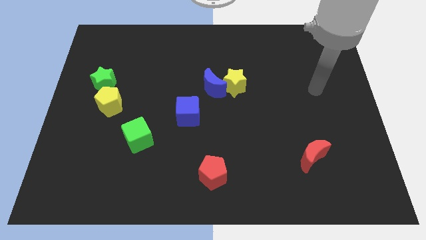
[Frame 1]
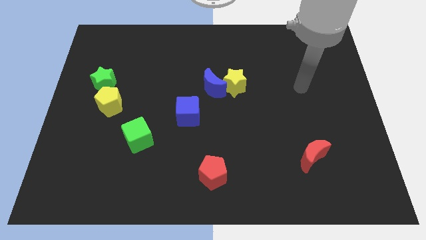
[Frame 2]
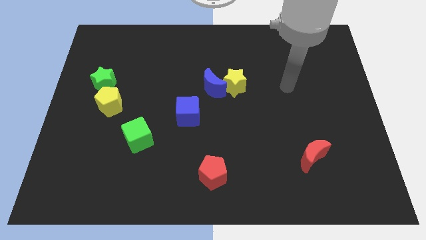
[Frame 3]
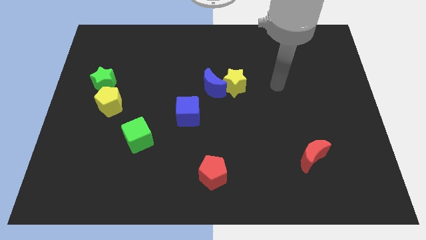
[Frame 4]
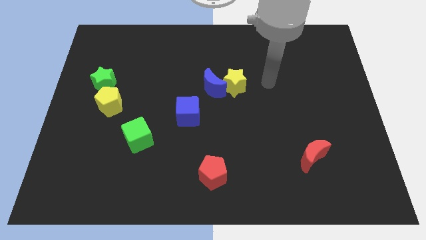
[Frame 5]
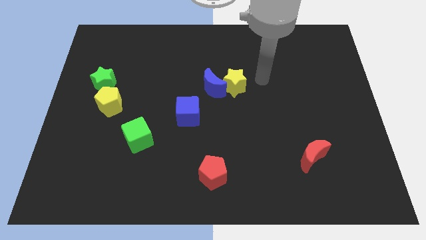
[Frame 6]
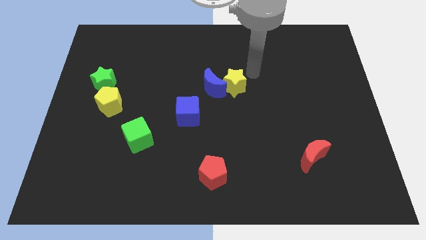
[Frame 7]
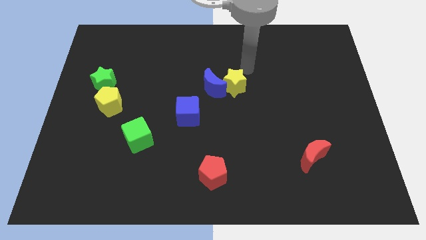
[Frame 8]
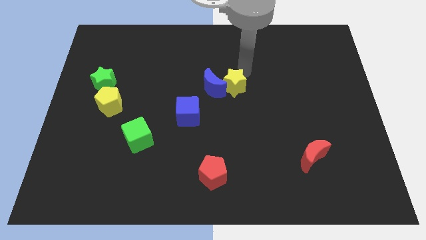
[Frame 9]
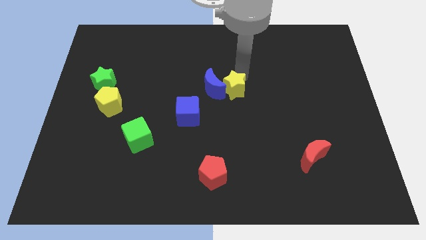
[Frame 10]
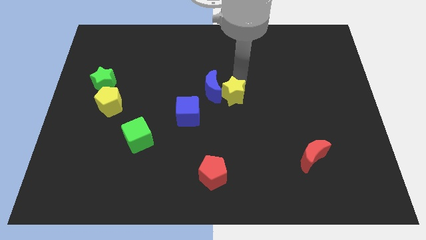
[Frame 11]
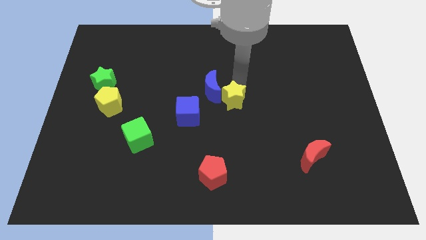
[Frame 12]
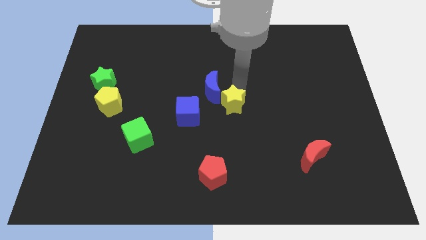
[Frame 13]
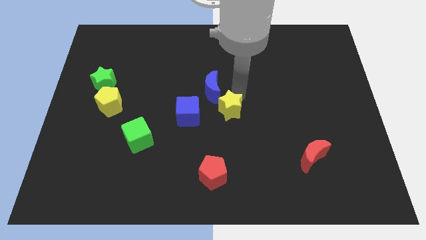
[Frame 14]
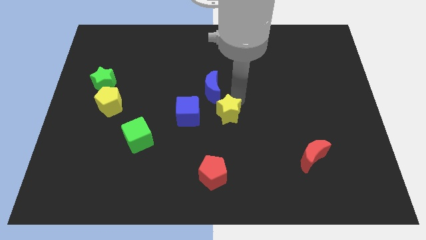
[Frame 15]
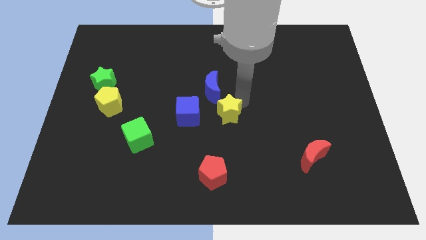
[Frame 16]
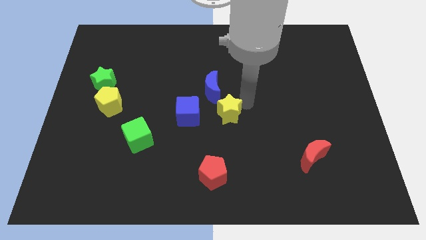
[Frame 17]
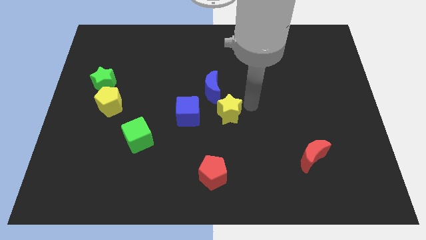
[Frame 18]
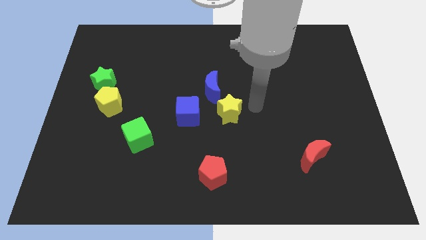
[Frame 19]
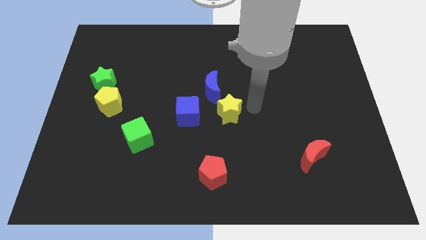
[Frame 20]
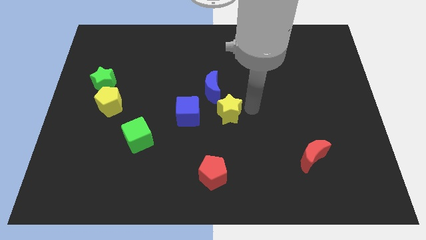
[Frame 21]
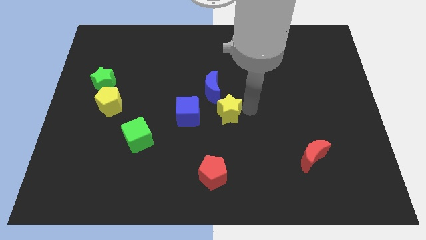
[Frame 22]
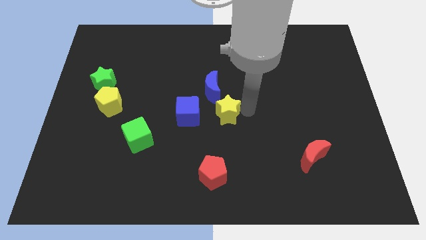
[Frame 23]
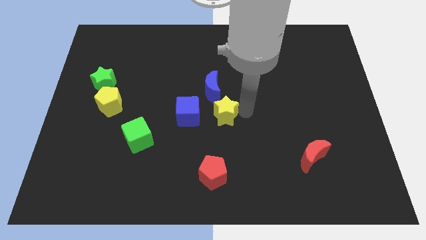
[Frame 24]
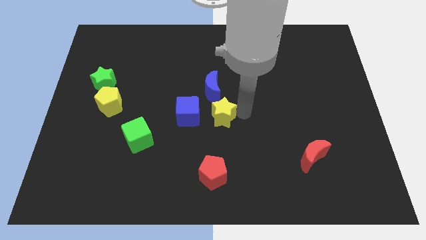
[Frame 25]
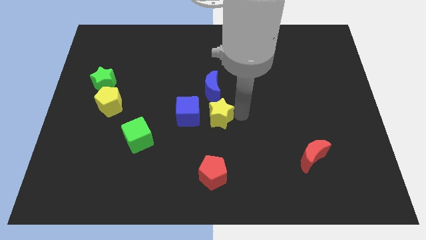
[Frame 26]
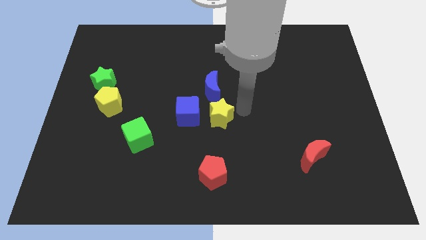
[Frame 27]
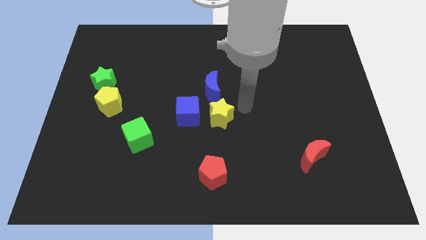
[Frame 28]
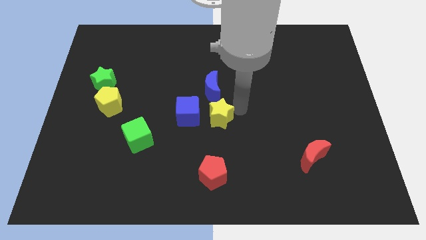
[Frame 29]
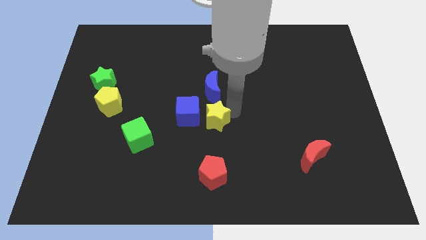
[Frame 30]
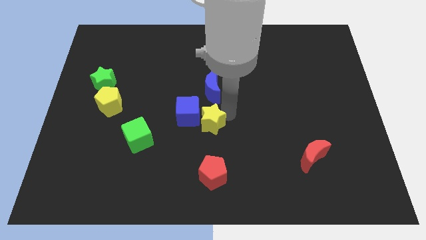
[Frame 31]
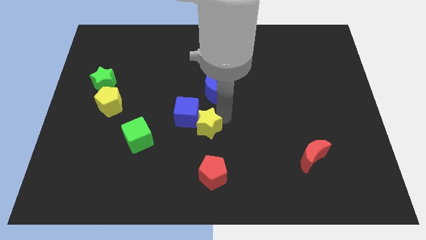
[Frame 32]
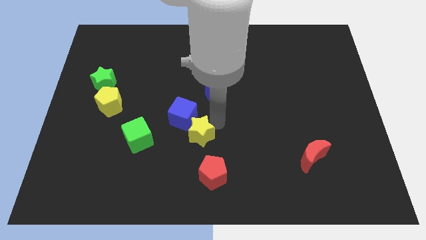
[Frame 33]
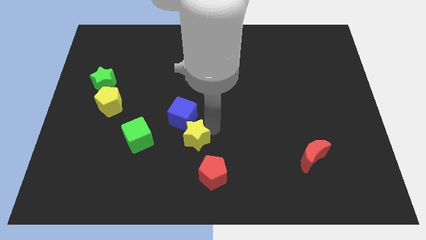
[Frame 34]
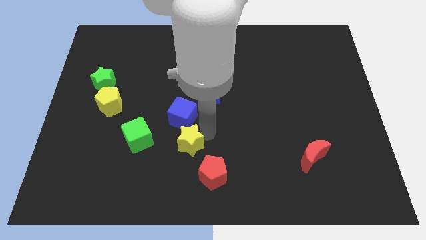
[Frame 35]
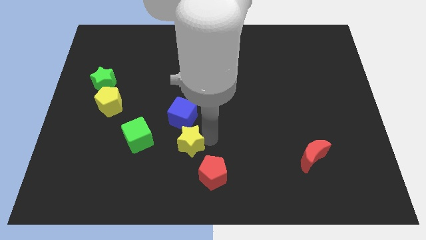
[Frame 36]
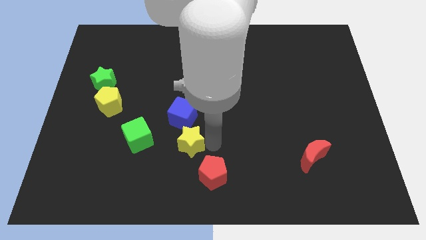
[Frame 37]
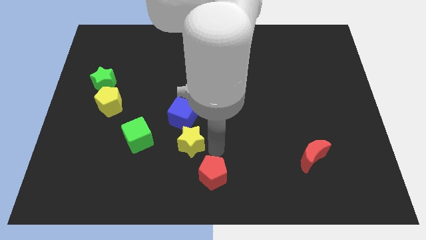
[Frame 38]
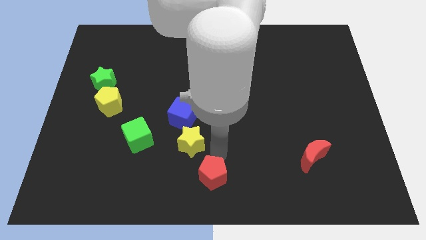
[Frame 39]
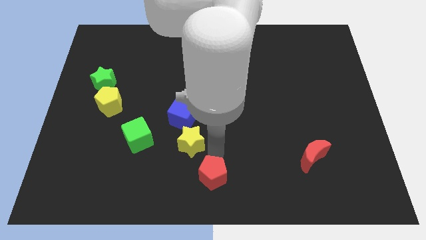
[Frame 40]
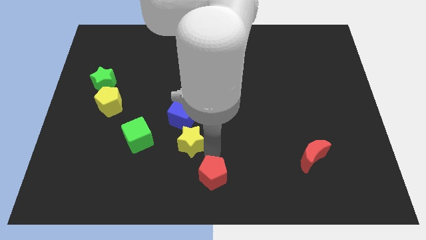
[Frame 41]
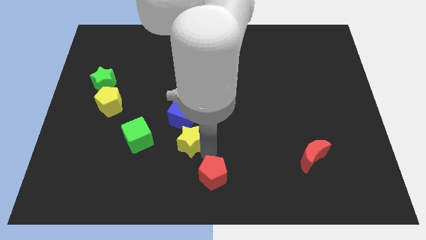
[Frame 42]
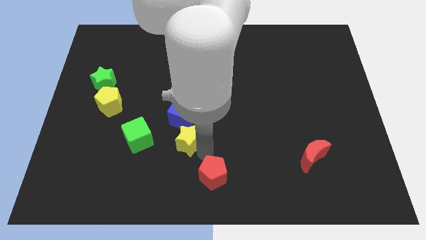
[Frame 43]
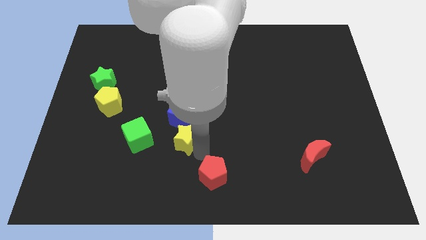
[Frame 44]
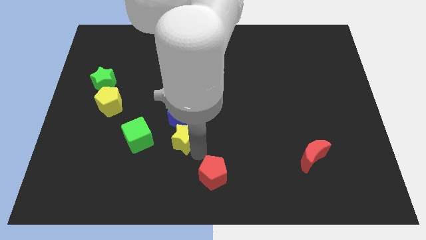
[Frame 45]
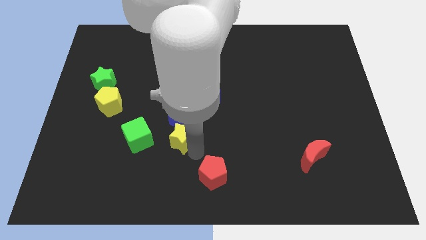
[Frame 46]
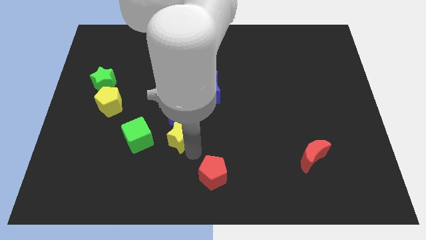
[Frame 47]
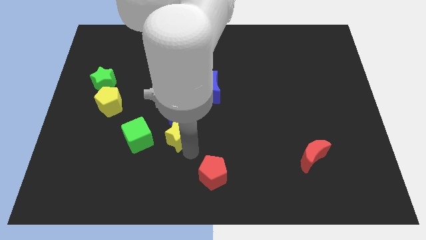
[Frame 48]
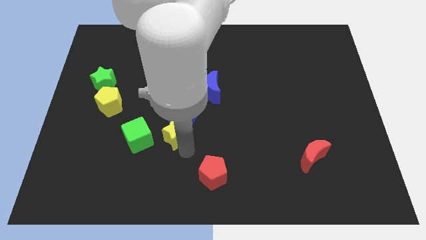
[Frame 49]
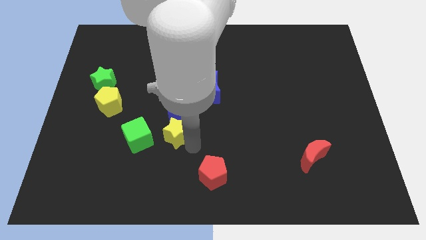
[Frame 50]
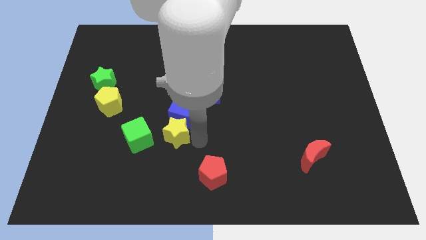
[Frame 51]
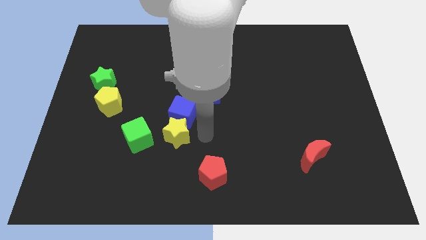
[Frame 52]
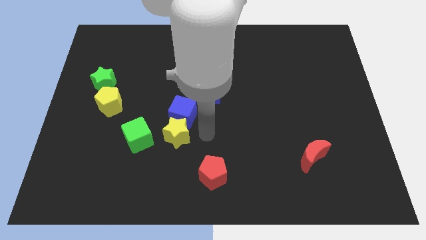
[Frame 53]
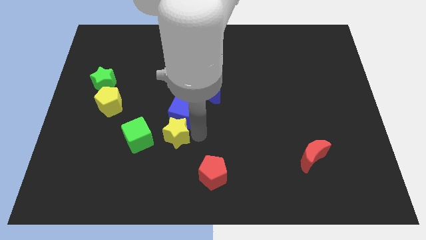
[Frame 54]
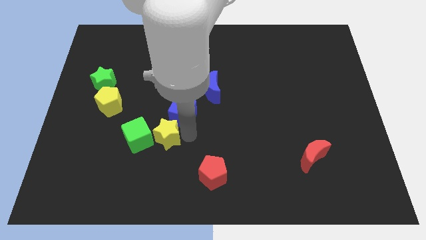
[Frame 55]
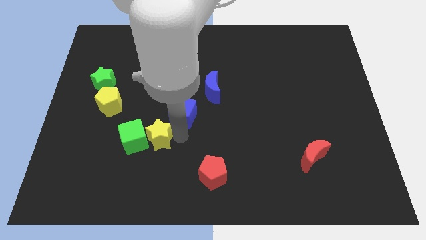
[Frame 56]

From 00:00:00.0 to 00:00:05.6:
slide the yellow star to the green cube

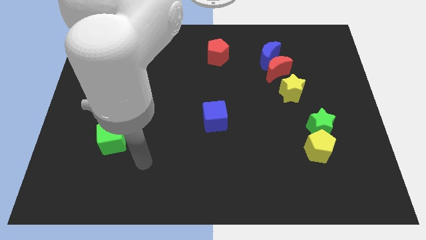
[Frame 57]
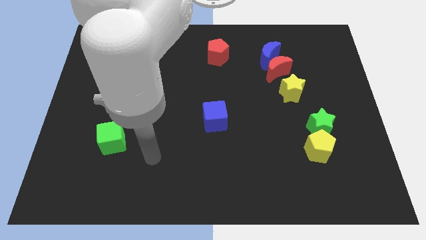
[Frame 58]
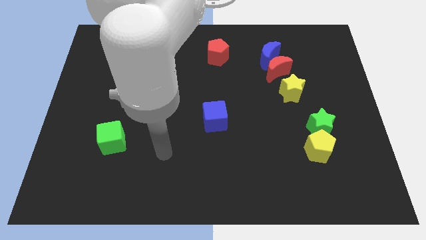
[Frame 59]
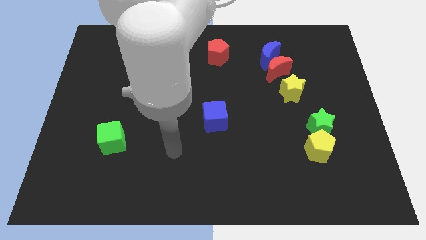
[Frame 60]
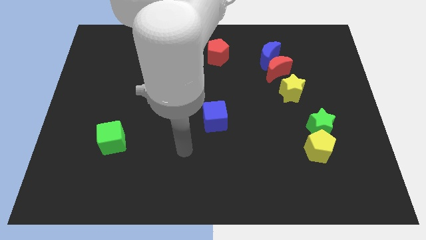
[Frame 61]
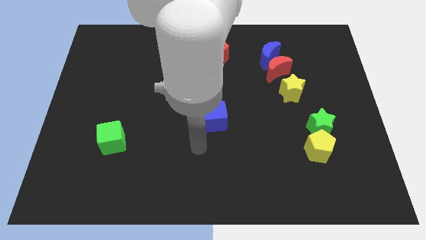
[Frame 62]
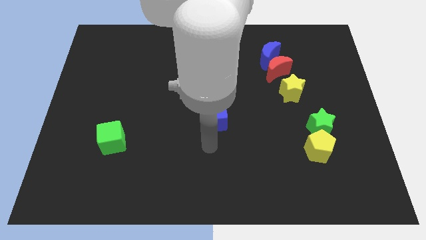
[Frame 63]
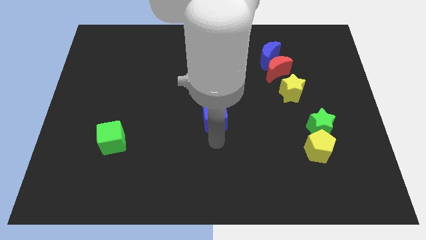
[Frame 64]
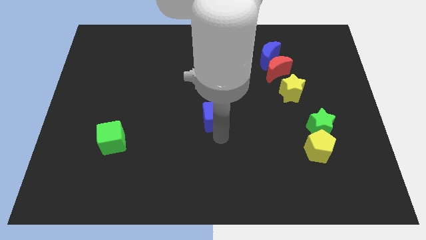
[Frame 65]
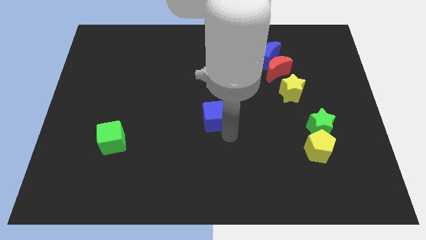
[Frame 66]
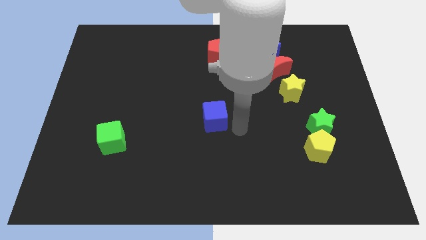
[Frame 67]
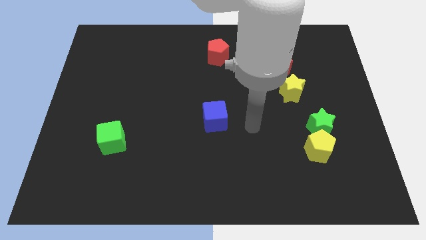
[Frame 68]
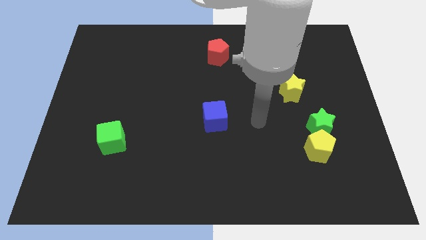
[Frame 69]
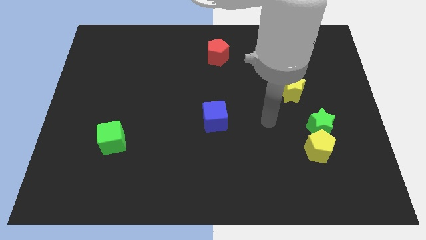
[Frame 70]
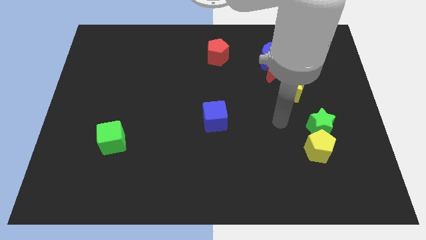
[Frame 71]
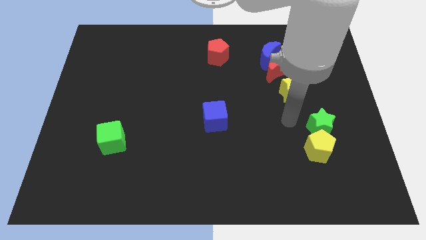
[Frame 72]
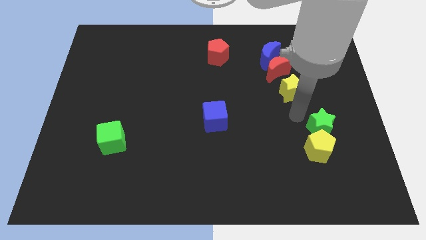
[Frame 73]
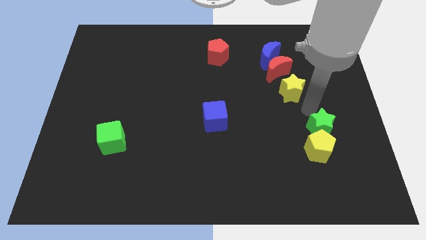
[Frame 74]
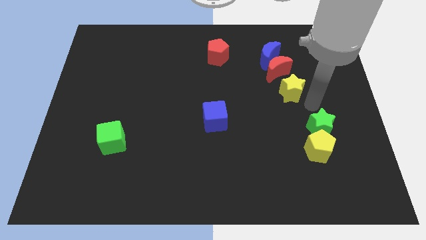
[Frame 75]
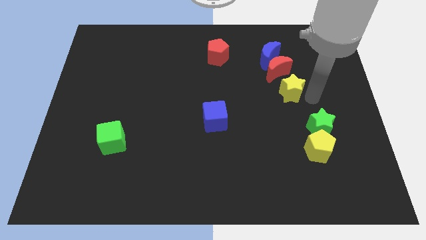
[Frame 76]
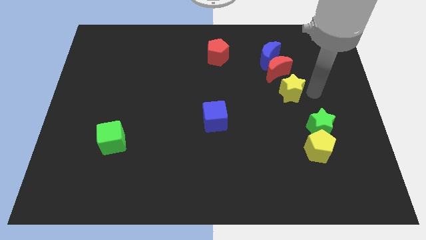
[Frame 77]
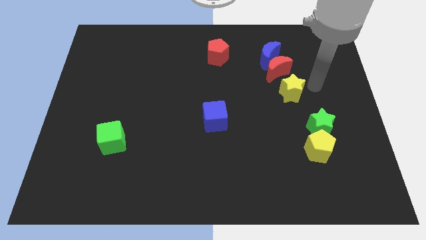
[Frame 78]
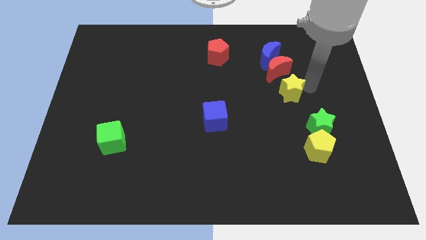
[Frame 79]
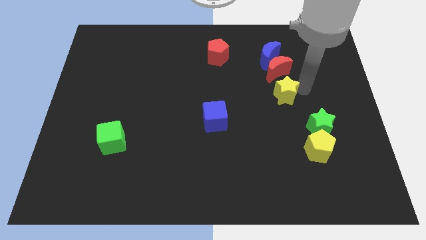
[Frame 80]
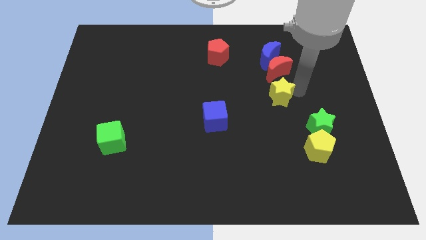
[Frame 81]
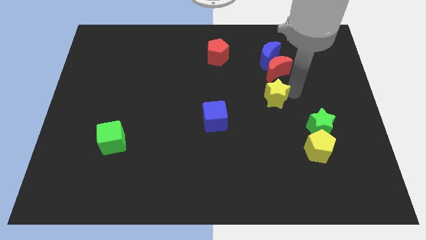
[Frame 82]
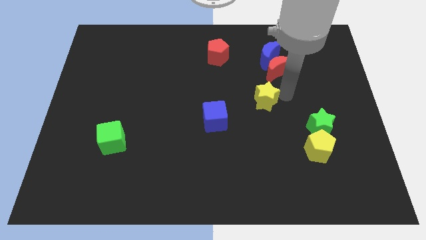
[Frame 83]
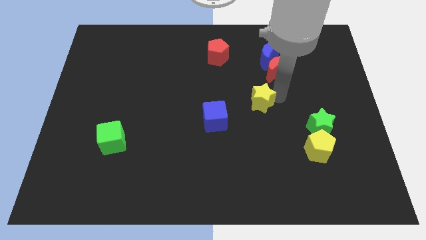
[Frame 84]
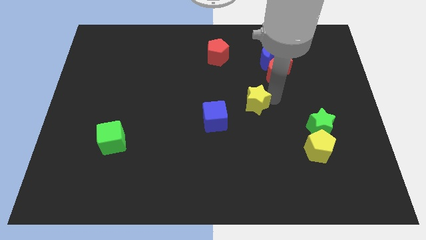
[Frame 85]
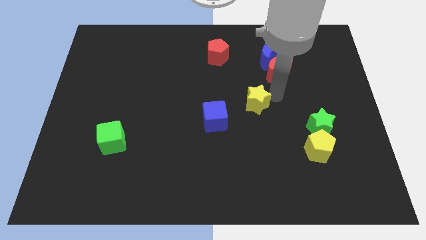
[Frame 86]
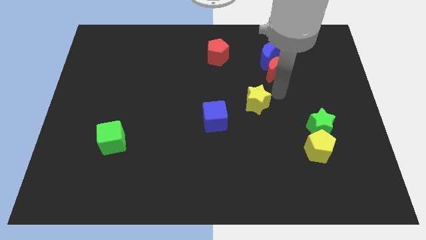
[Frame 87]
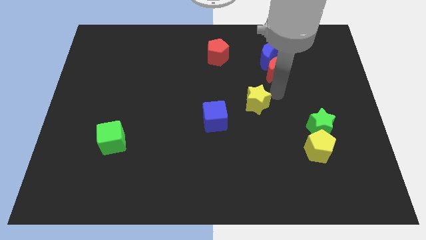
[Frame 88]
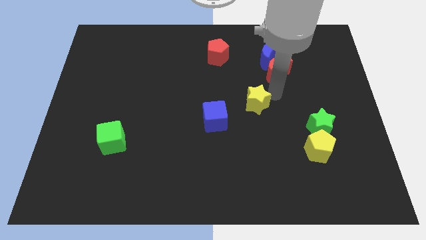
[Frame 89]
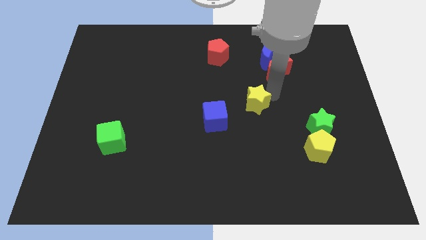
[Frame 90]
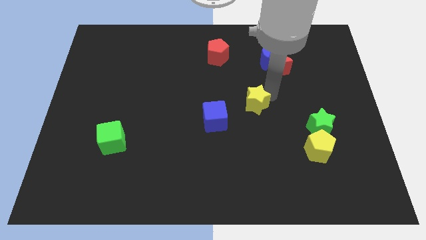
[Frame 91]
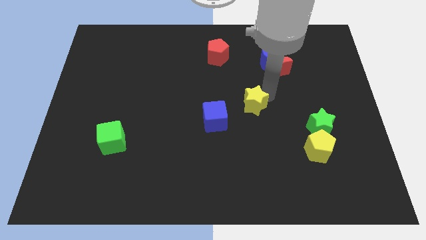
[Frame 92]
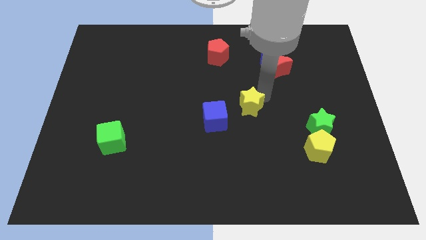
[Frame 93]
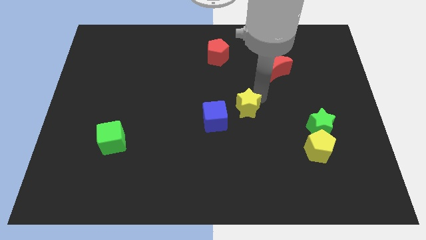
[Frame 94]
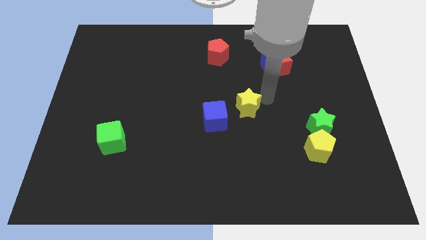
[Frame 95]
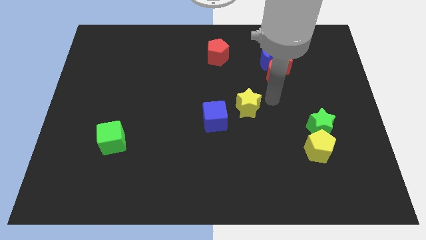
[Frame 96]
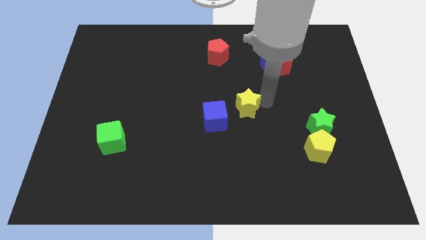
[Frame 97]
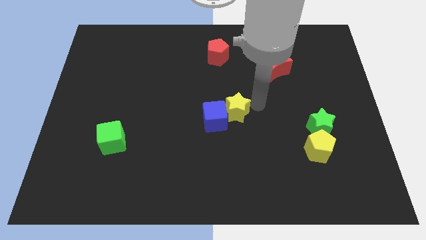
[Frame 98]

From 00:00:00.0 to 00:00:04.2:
push the yellow star next to the blue cube
